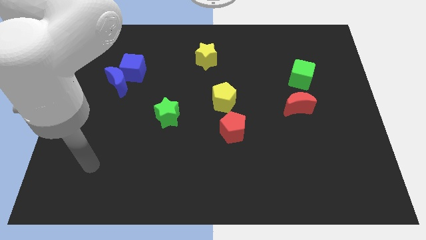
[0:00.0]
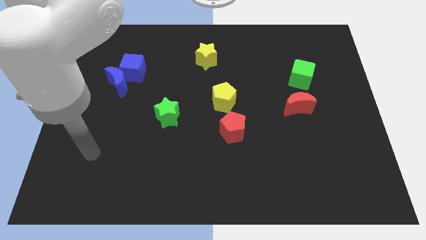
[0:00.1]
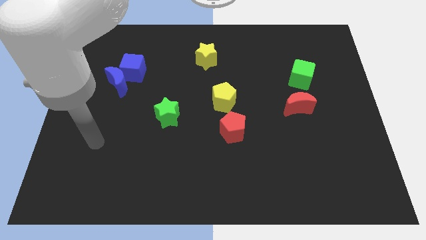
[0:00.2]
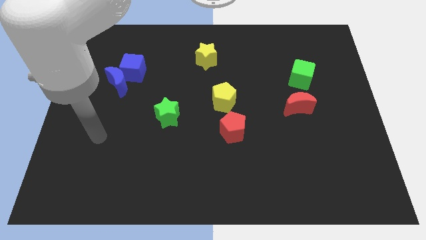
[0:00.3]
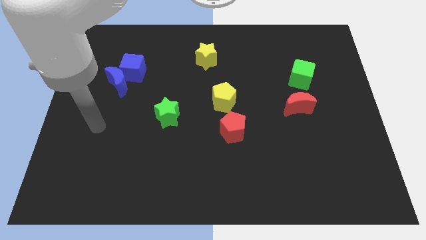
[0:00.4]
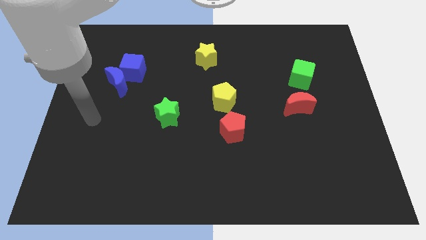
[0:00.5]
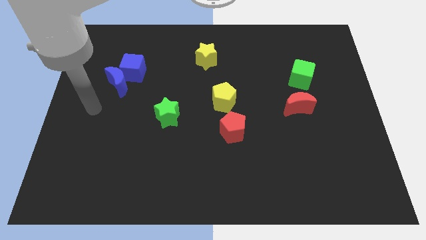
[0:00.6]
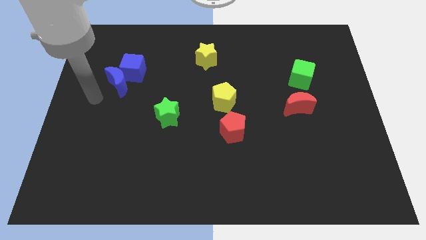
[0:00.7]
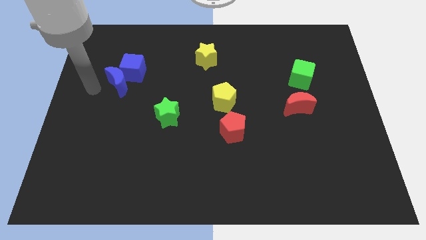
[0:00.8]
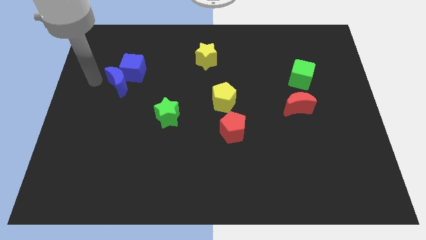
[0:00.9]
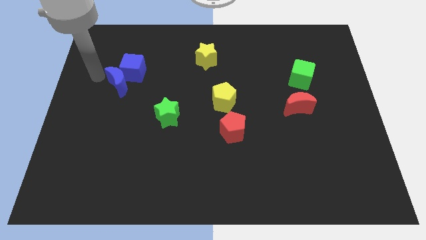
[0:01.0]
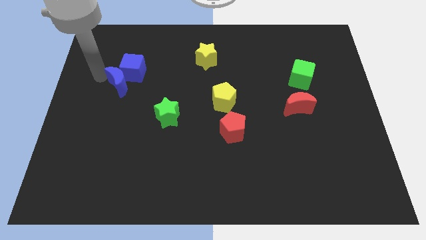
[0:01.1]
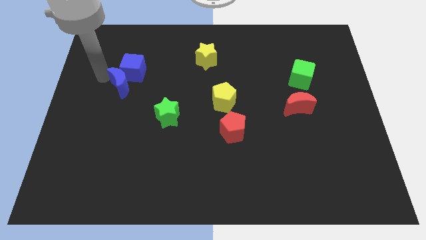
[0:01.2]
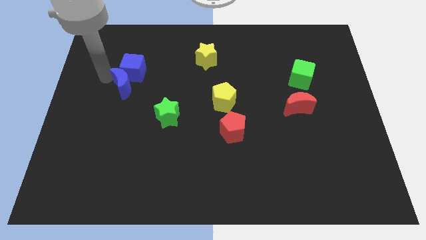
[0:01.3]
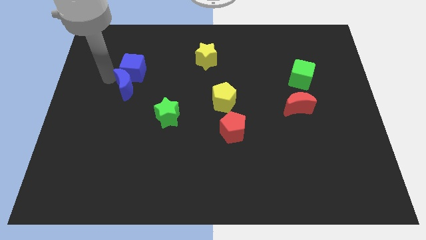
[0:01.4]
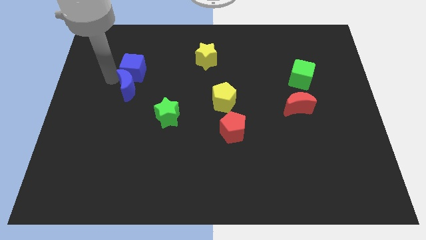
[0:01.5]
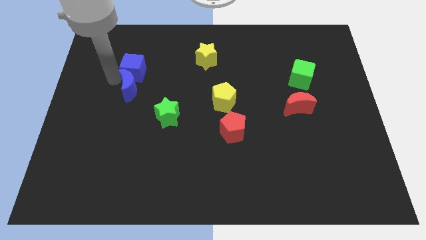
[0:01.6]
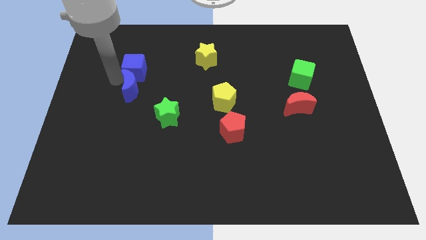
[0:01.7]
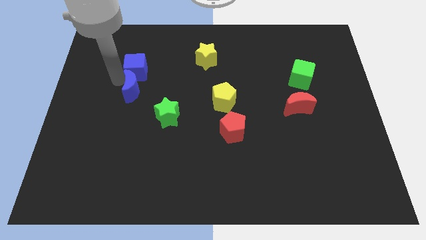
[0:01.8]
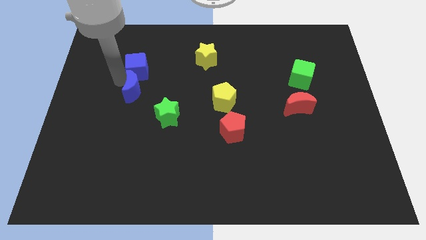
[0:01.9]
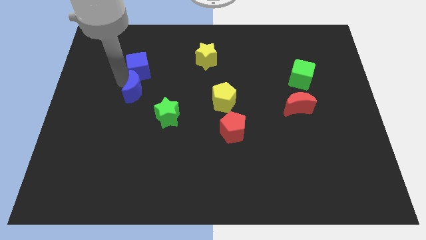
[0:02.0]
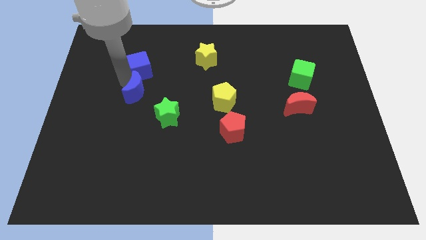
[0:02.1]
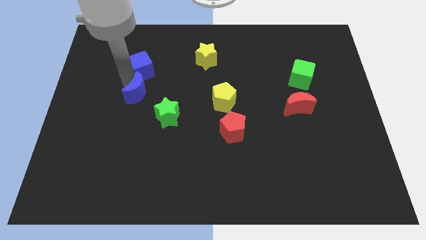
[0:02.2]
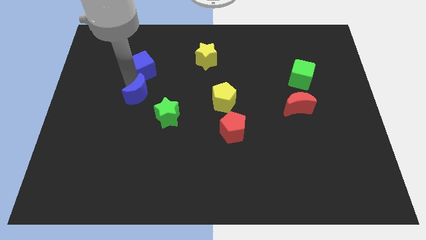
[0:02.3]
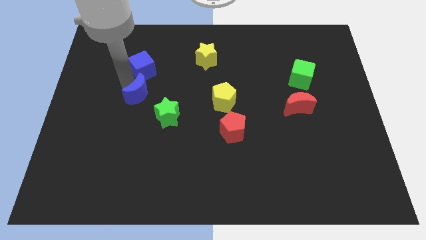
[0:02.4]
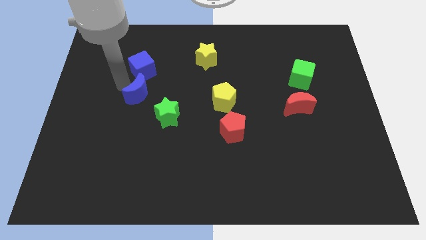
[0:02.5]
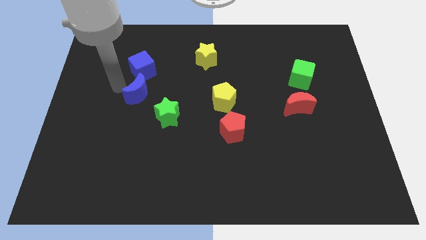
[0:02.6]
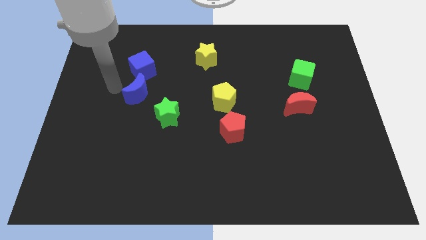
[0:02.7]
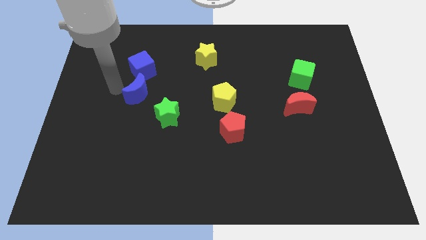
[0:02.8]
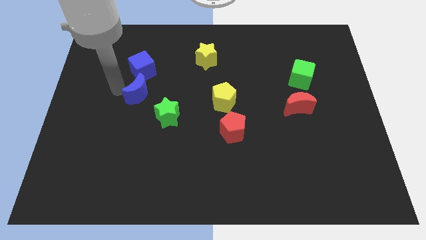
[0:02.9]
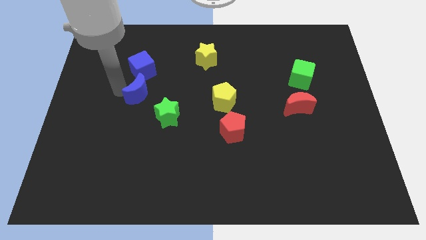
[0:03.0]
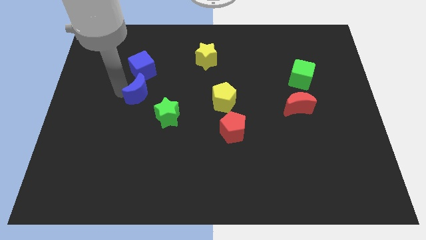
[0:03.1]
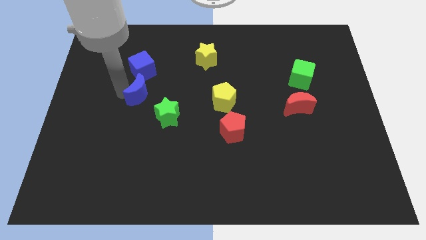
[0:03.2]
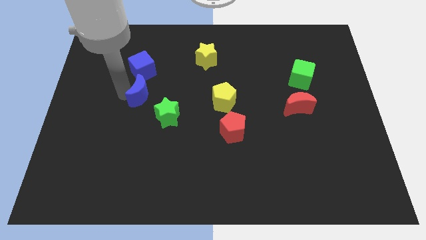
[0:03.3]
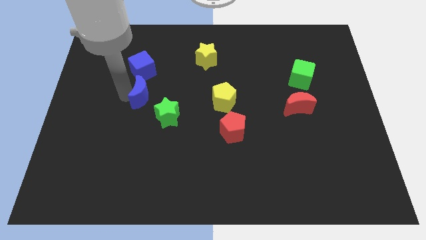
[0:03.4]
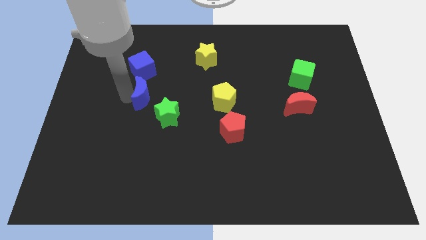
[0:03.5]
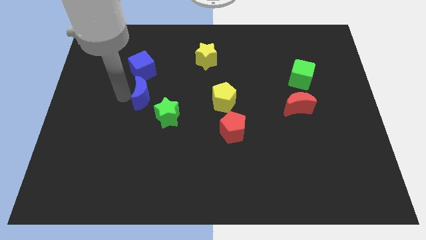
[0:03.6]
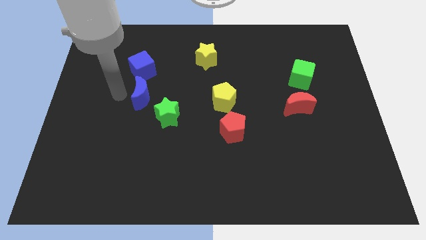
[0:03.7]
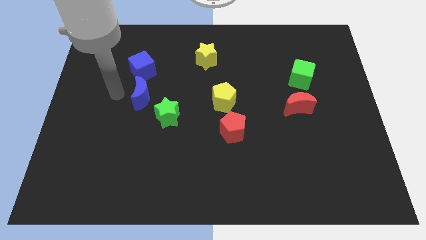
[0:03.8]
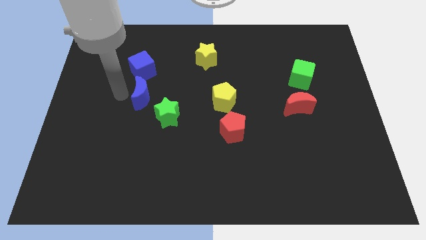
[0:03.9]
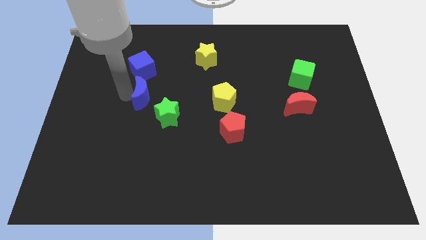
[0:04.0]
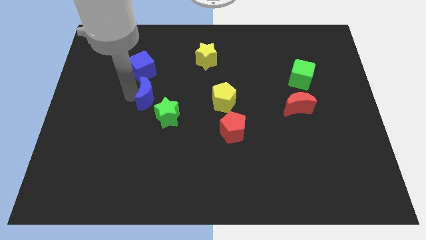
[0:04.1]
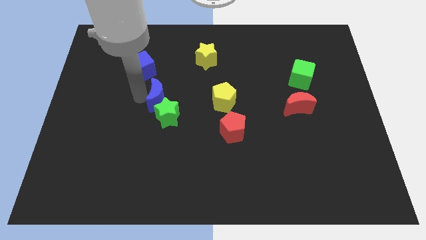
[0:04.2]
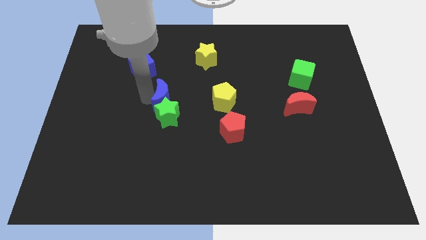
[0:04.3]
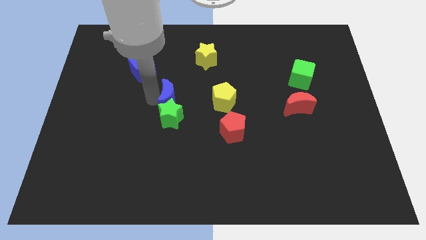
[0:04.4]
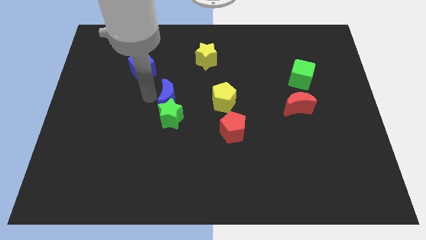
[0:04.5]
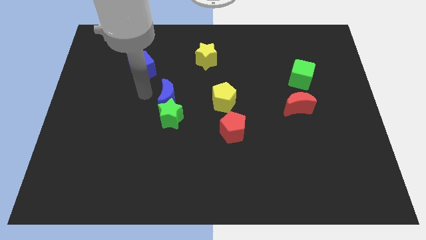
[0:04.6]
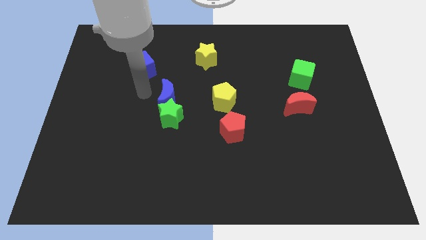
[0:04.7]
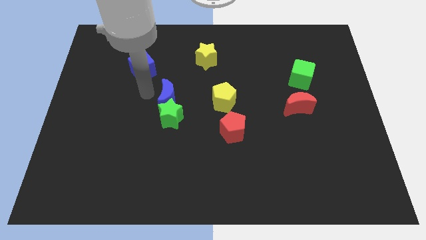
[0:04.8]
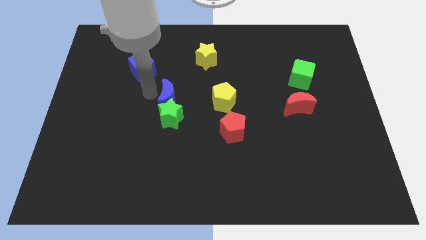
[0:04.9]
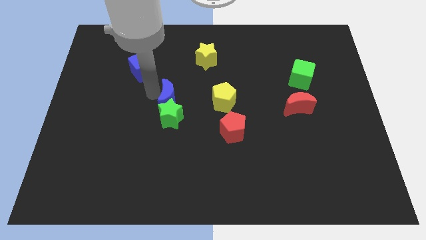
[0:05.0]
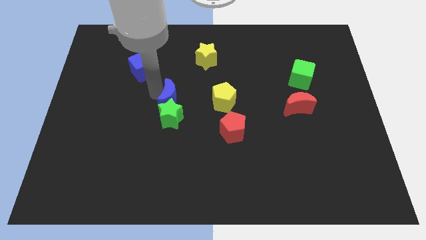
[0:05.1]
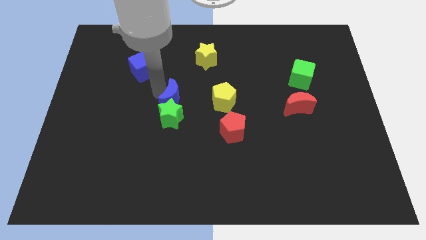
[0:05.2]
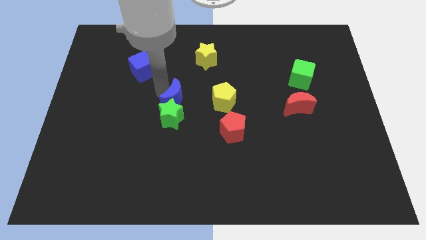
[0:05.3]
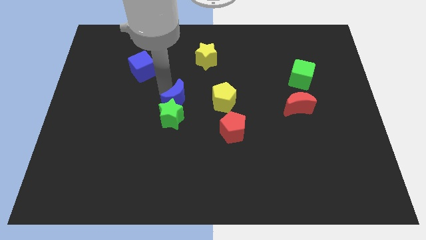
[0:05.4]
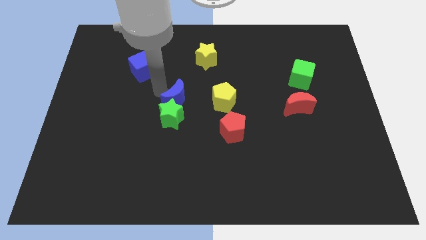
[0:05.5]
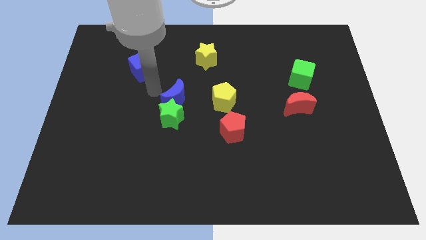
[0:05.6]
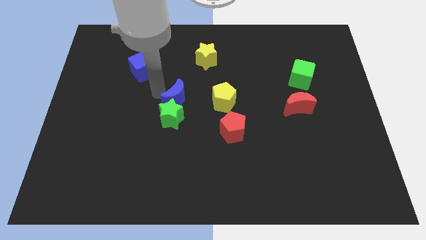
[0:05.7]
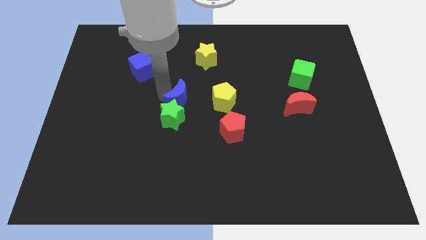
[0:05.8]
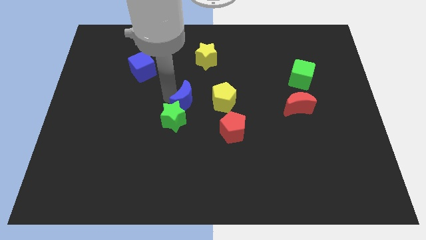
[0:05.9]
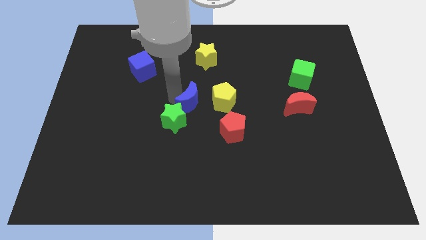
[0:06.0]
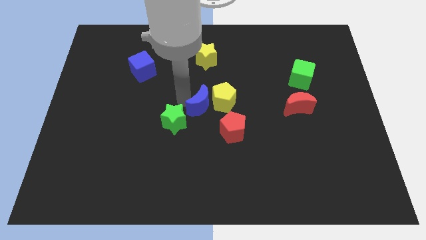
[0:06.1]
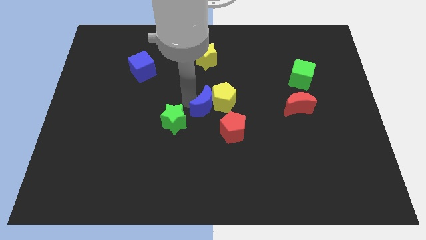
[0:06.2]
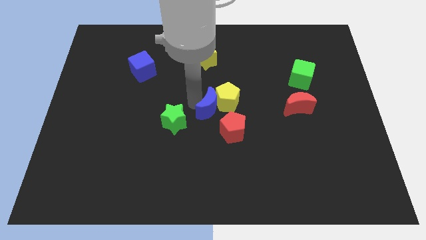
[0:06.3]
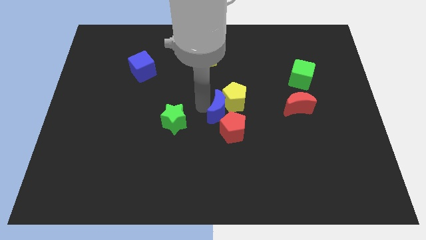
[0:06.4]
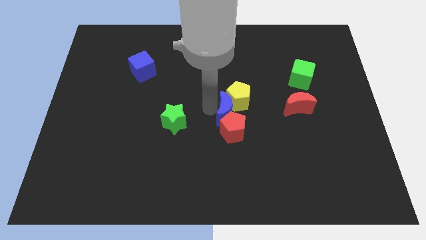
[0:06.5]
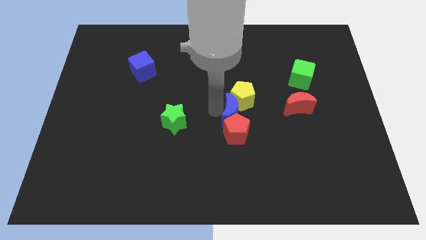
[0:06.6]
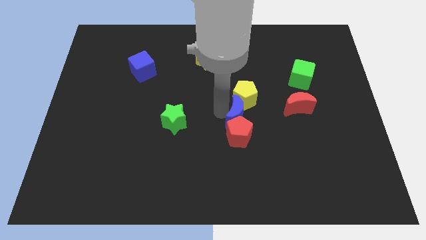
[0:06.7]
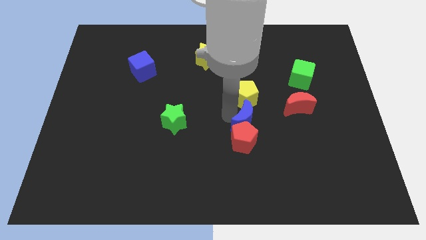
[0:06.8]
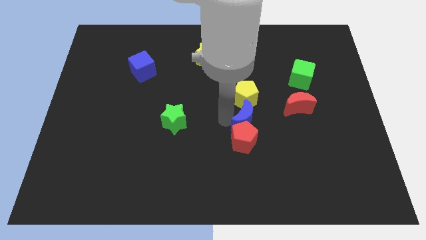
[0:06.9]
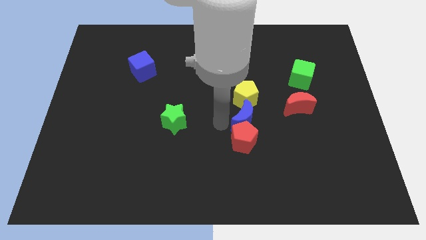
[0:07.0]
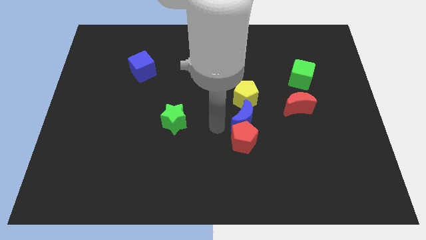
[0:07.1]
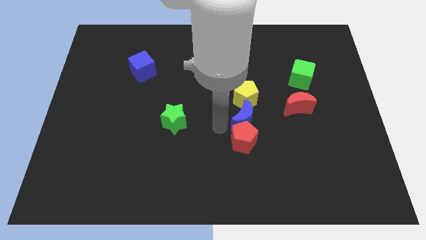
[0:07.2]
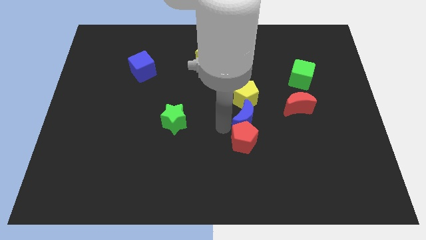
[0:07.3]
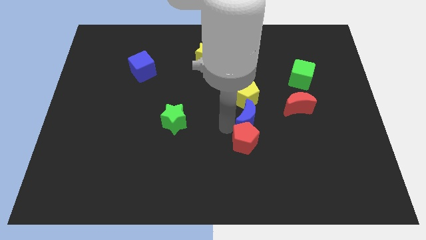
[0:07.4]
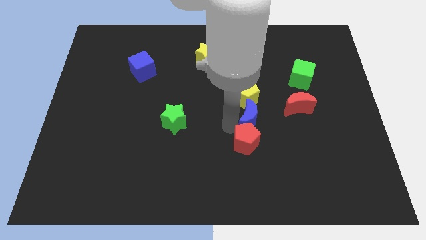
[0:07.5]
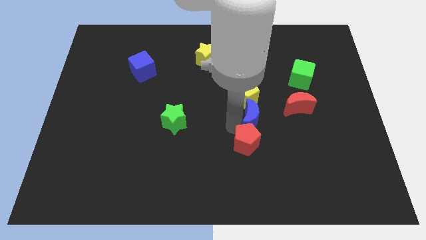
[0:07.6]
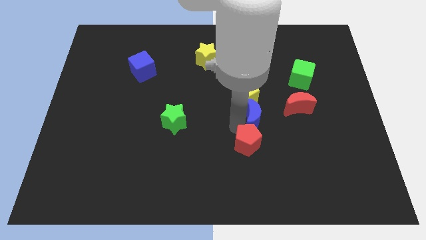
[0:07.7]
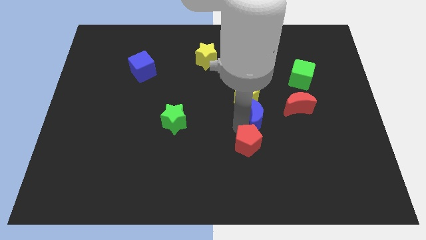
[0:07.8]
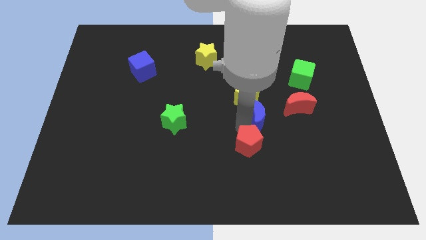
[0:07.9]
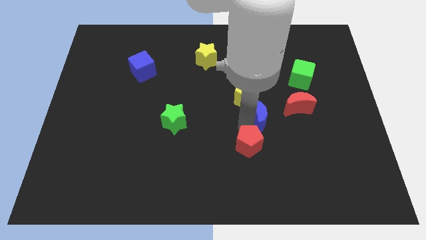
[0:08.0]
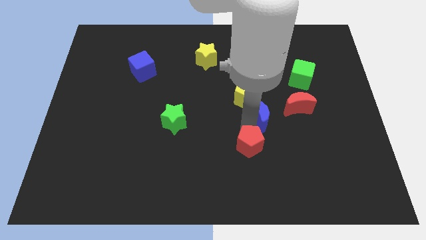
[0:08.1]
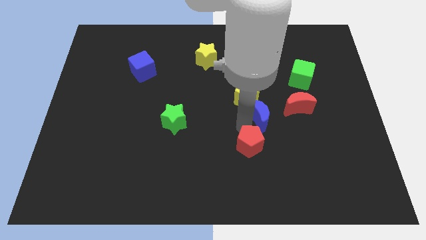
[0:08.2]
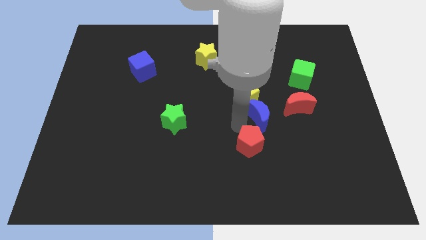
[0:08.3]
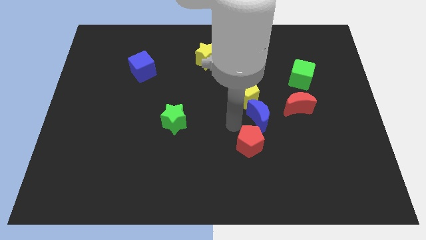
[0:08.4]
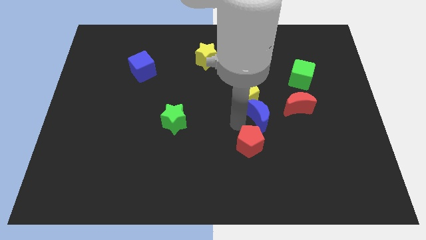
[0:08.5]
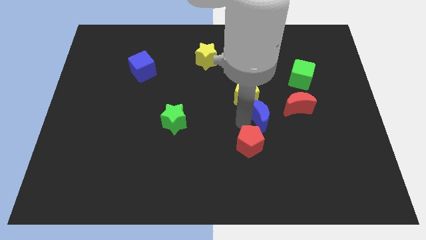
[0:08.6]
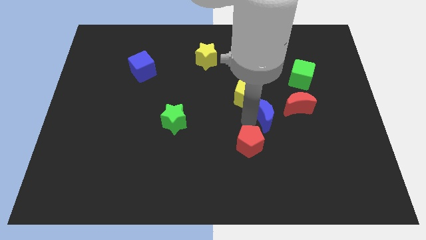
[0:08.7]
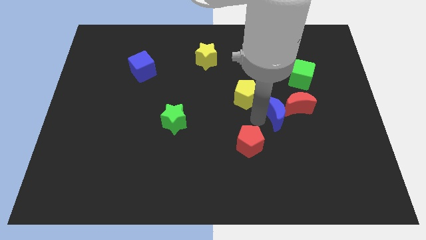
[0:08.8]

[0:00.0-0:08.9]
slide the blue moon close to the red moon
